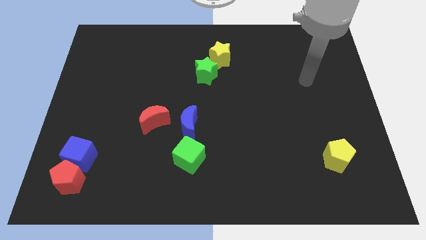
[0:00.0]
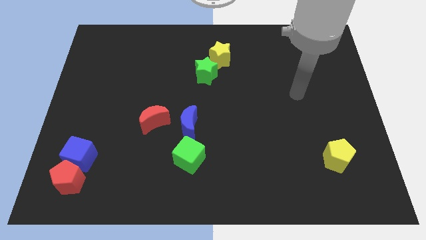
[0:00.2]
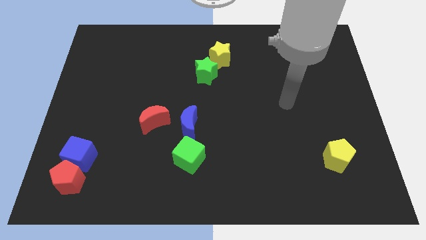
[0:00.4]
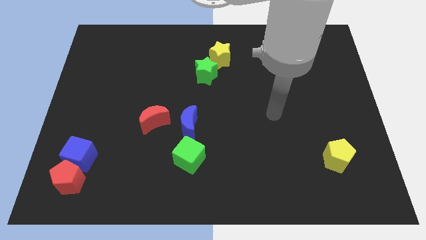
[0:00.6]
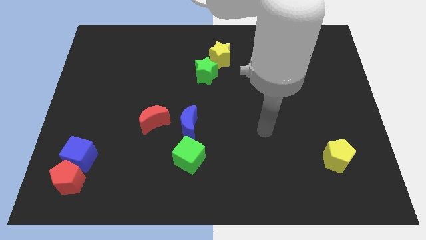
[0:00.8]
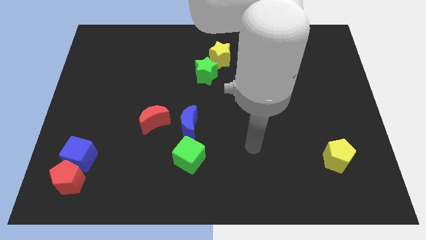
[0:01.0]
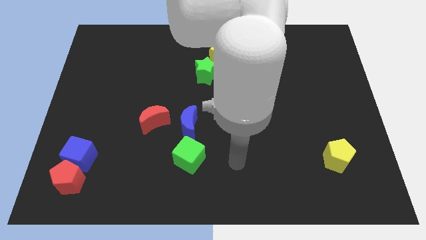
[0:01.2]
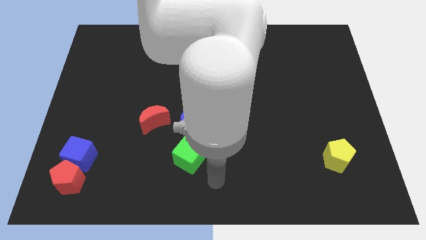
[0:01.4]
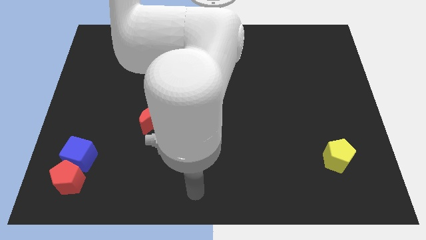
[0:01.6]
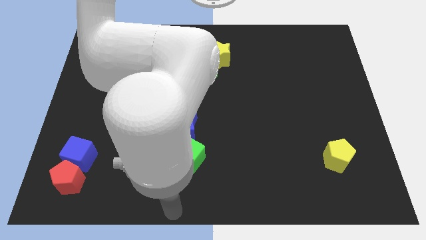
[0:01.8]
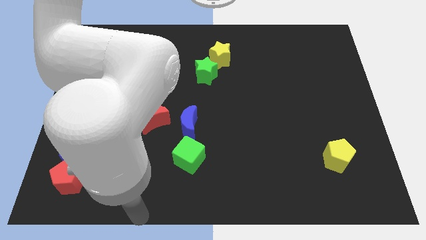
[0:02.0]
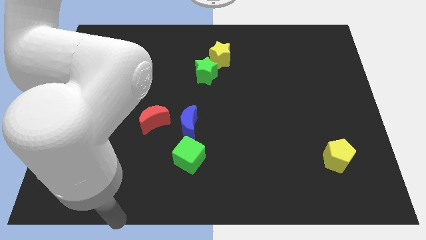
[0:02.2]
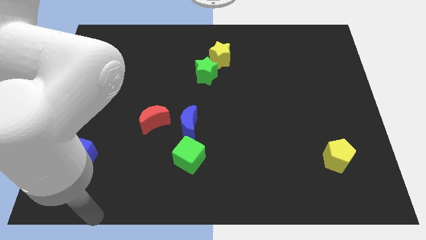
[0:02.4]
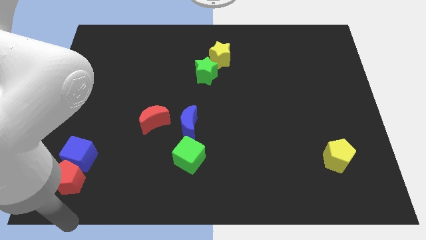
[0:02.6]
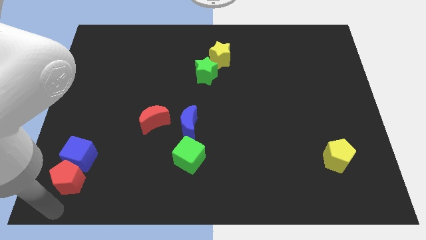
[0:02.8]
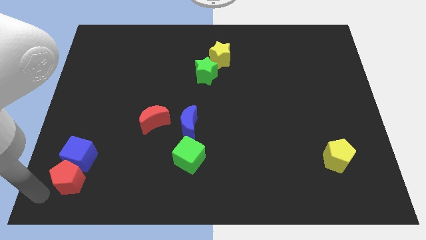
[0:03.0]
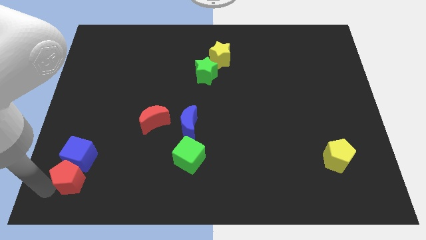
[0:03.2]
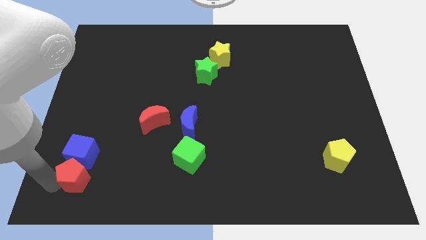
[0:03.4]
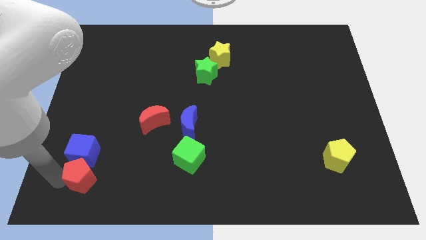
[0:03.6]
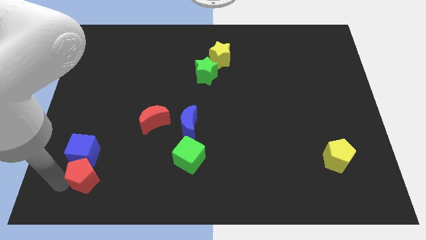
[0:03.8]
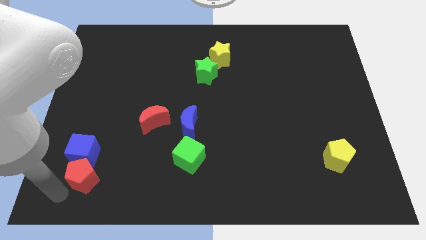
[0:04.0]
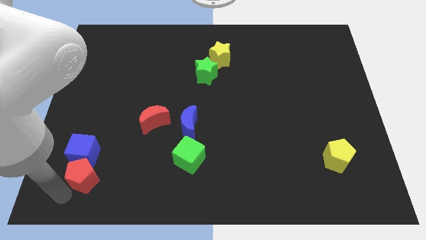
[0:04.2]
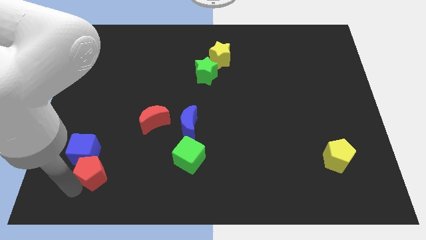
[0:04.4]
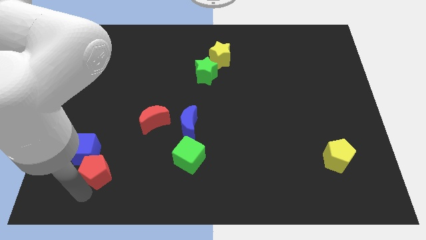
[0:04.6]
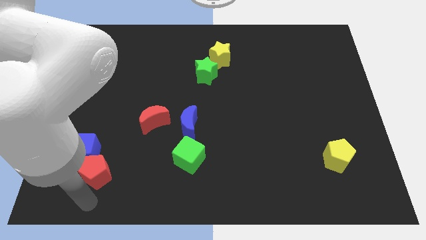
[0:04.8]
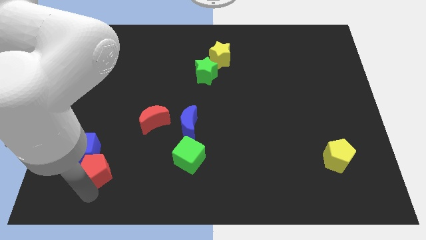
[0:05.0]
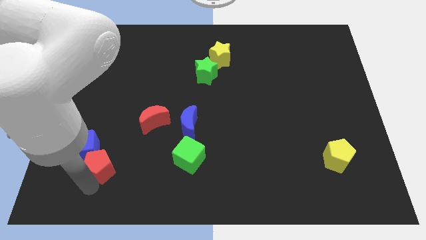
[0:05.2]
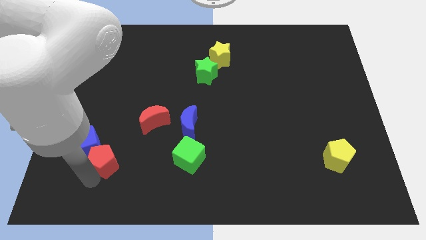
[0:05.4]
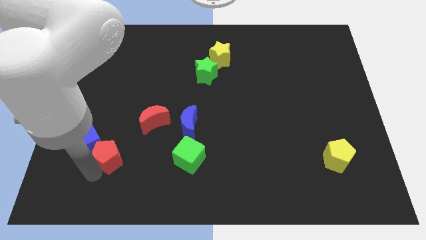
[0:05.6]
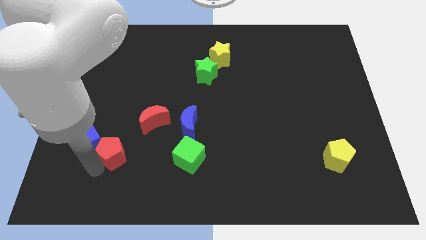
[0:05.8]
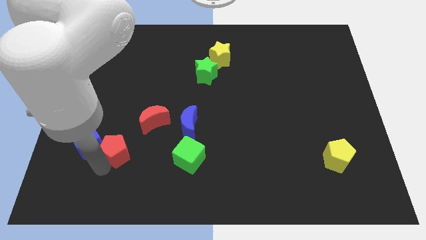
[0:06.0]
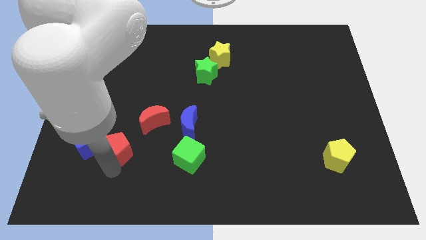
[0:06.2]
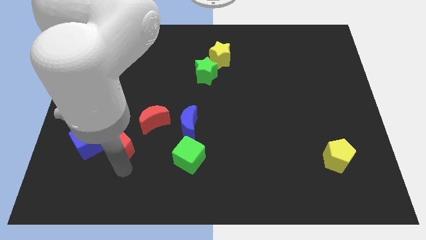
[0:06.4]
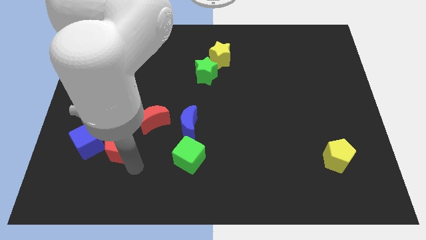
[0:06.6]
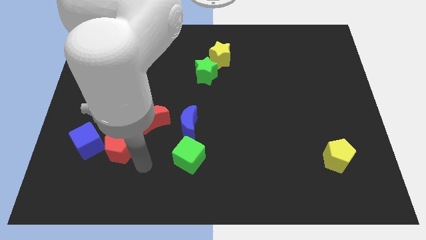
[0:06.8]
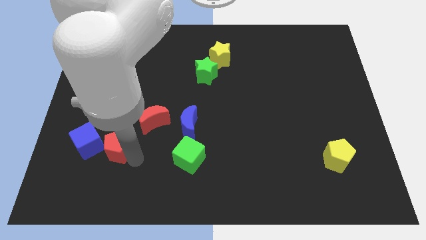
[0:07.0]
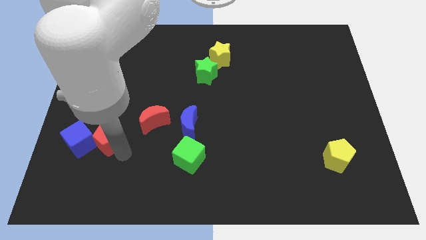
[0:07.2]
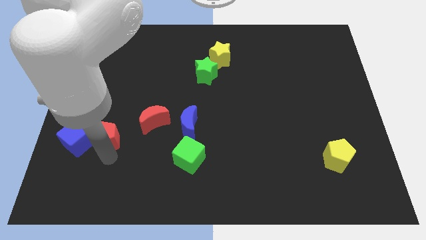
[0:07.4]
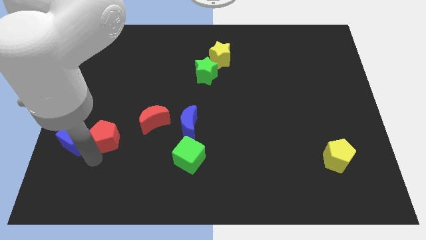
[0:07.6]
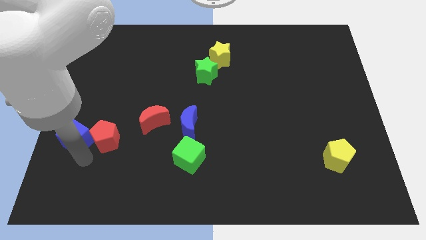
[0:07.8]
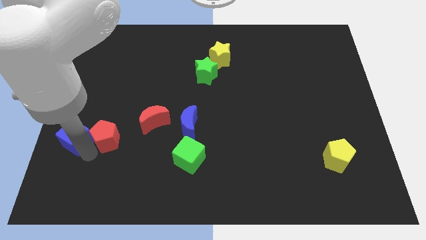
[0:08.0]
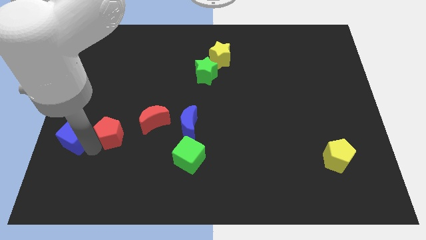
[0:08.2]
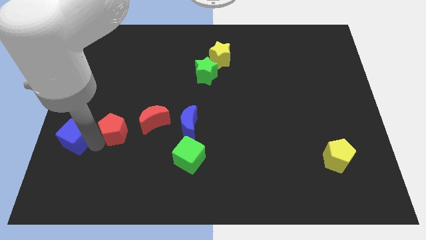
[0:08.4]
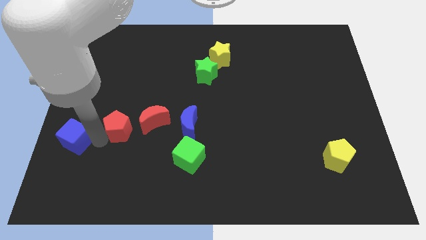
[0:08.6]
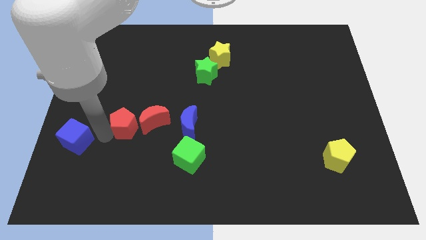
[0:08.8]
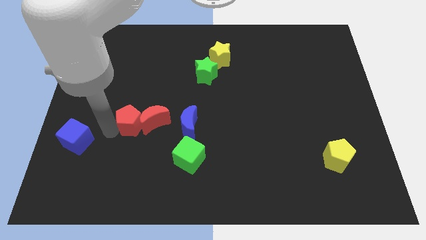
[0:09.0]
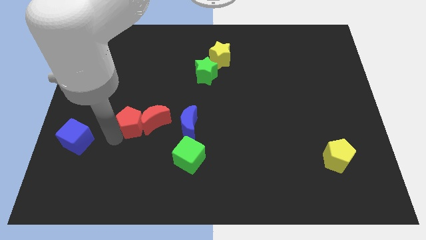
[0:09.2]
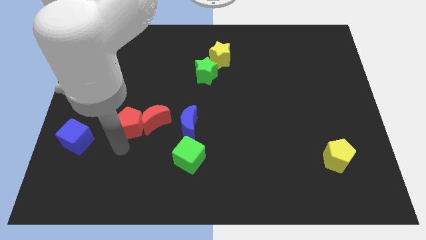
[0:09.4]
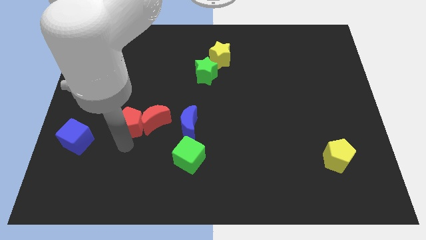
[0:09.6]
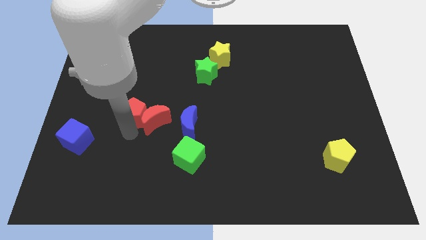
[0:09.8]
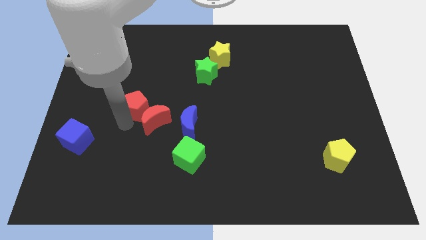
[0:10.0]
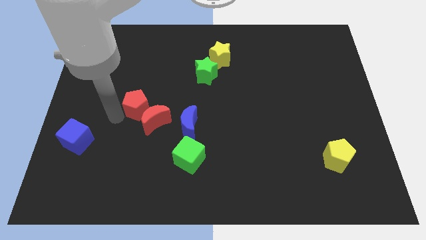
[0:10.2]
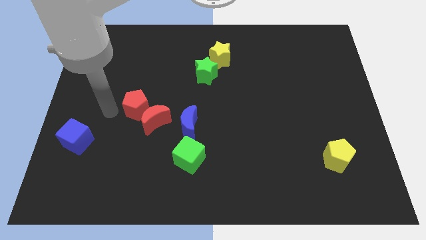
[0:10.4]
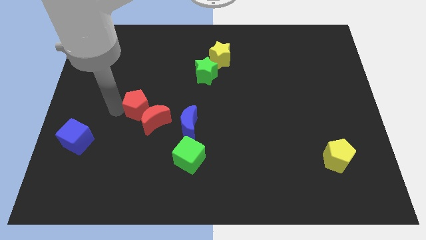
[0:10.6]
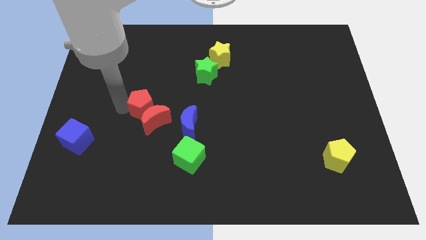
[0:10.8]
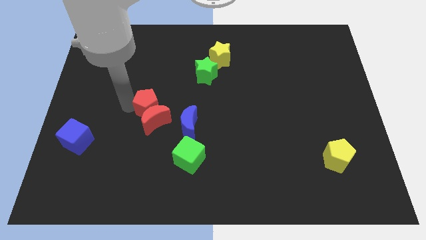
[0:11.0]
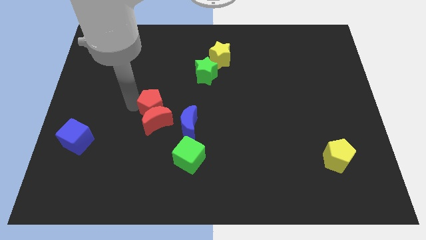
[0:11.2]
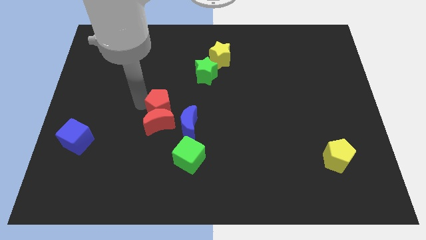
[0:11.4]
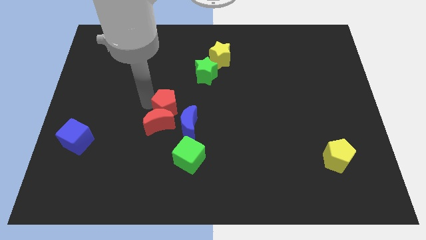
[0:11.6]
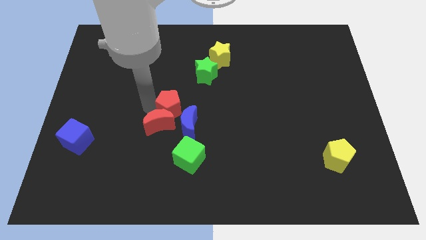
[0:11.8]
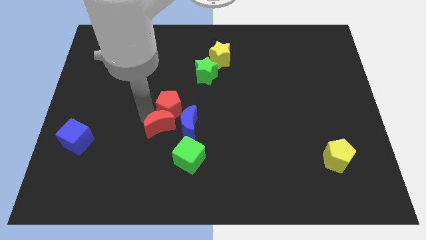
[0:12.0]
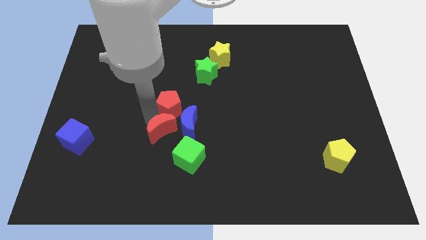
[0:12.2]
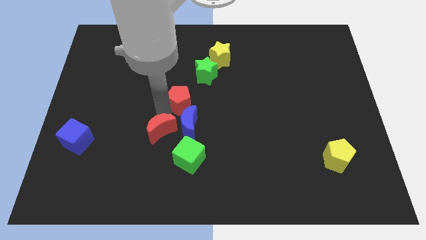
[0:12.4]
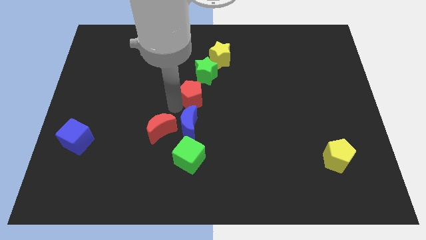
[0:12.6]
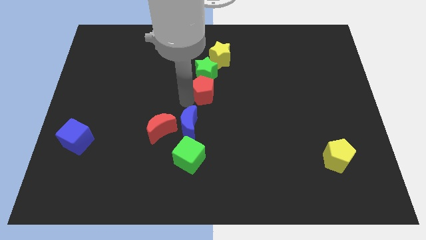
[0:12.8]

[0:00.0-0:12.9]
move the red pentagon to the bottom side of the yellow star

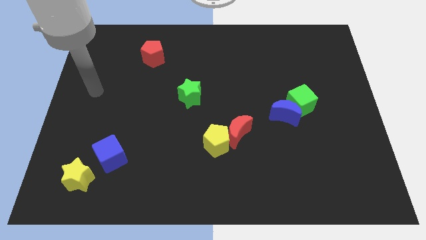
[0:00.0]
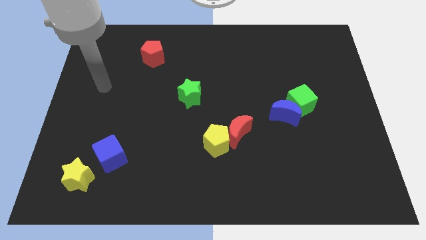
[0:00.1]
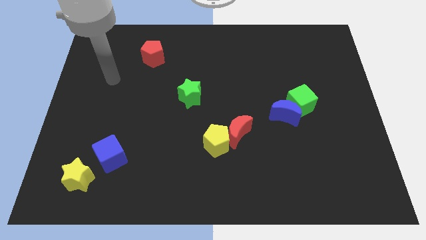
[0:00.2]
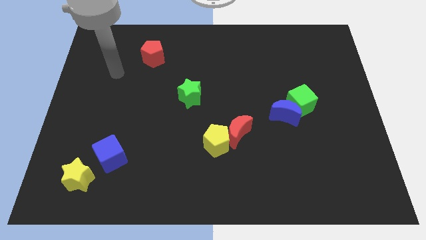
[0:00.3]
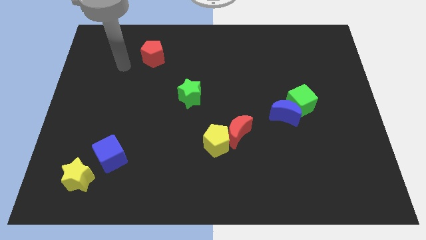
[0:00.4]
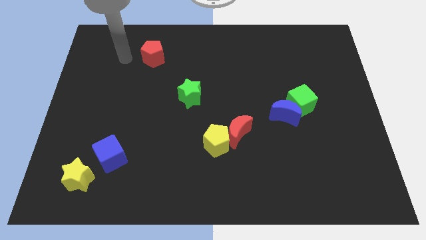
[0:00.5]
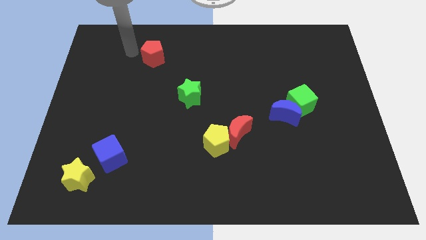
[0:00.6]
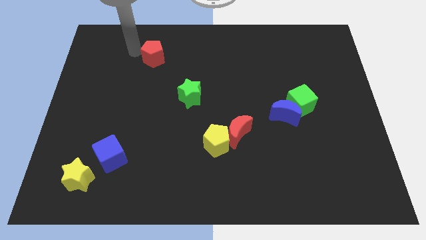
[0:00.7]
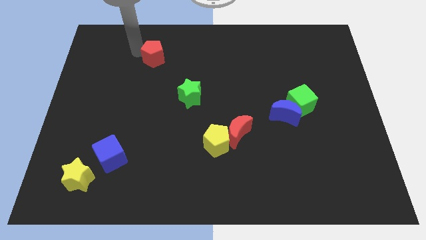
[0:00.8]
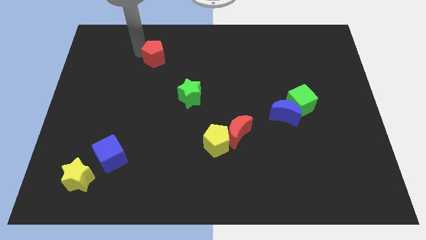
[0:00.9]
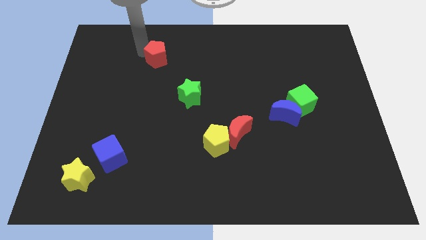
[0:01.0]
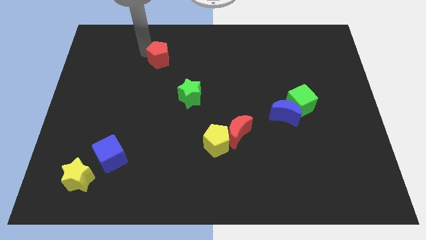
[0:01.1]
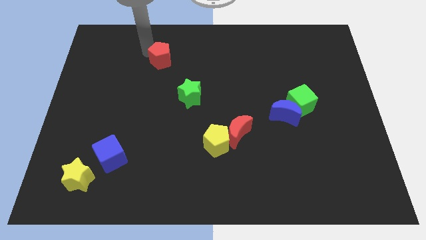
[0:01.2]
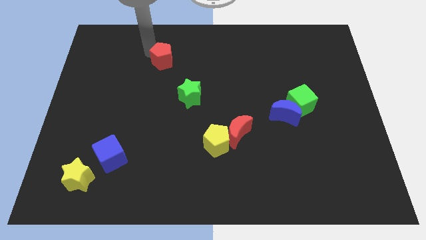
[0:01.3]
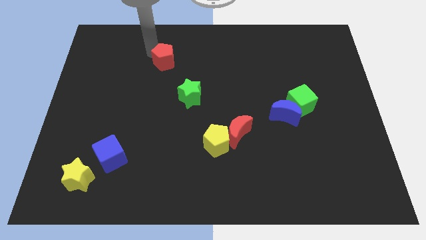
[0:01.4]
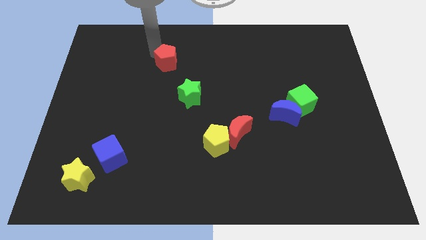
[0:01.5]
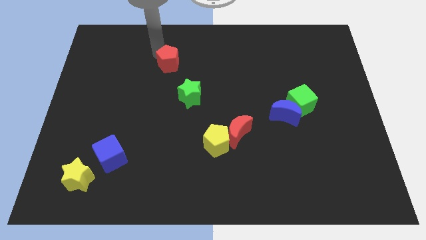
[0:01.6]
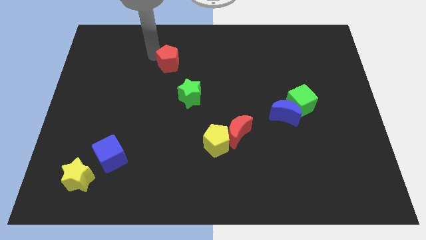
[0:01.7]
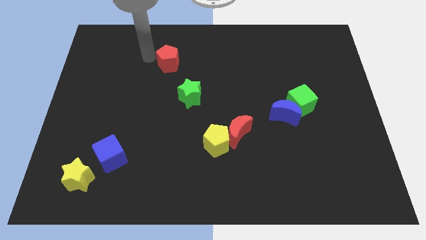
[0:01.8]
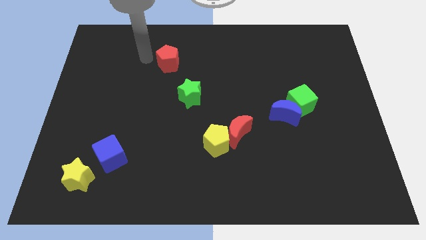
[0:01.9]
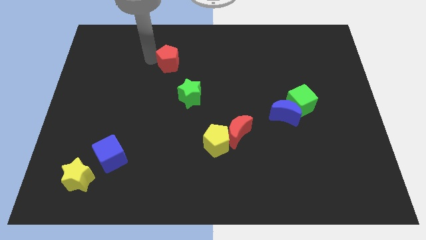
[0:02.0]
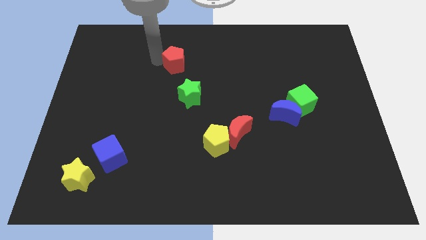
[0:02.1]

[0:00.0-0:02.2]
put the red pentagon to the top of the green star
